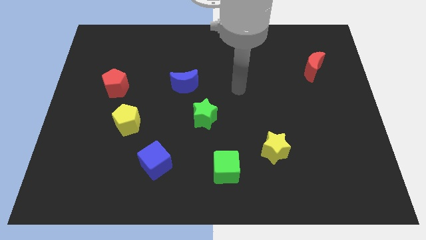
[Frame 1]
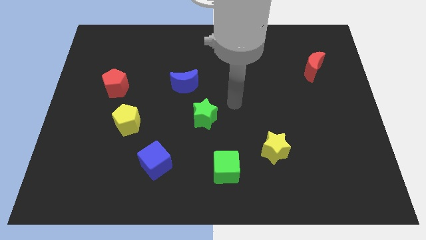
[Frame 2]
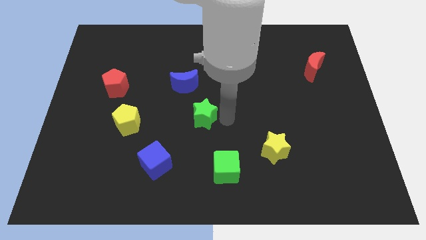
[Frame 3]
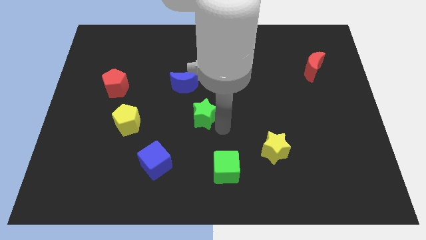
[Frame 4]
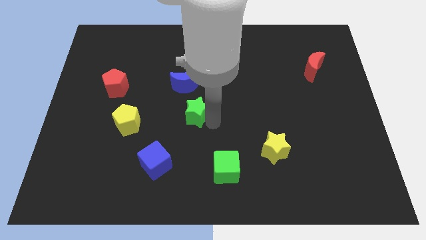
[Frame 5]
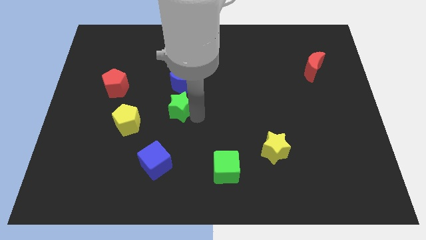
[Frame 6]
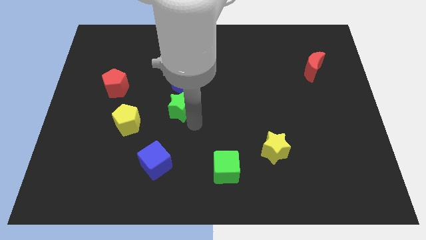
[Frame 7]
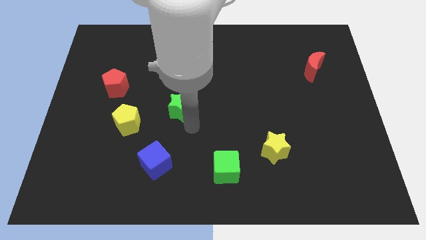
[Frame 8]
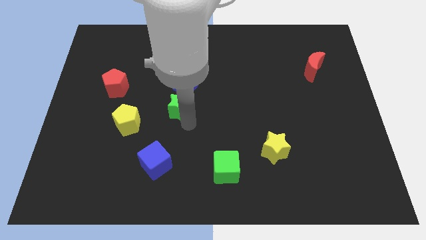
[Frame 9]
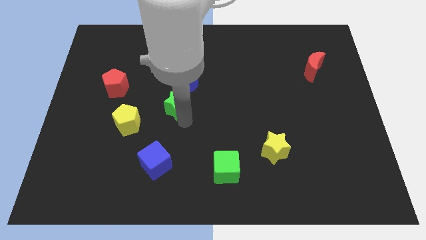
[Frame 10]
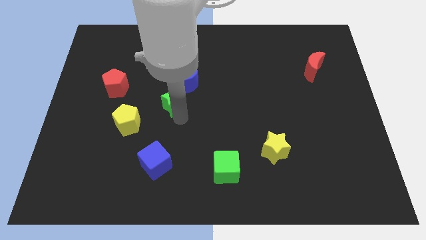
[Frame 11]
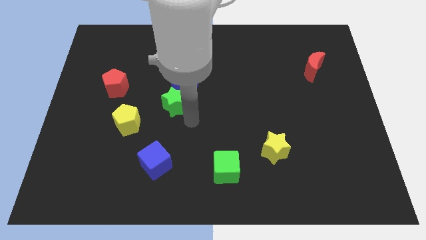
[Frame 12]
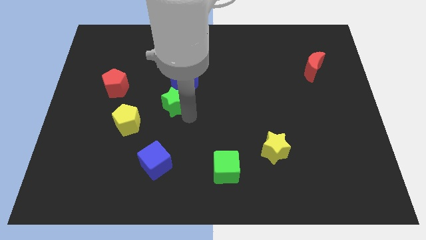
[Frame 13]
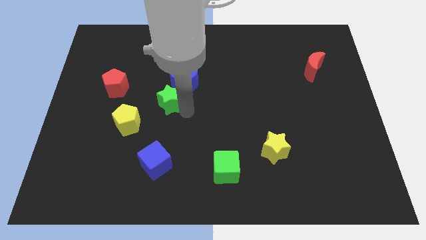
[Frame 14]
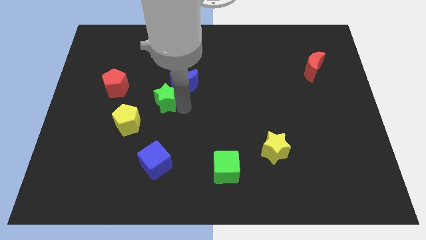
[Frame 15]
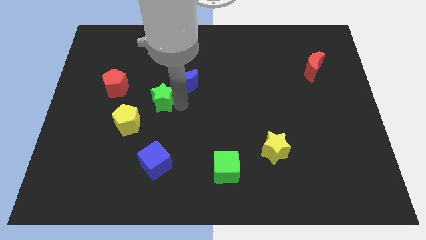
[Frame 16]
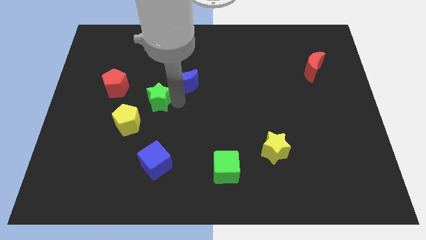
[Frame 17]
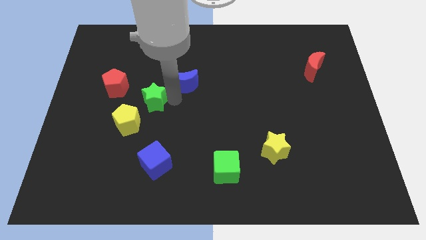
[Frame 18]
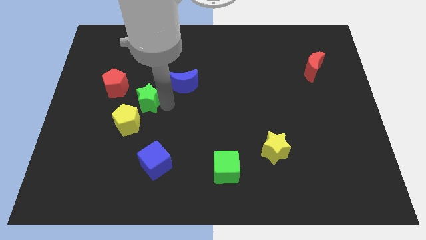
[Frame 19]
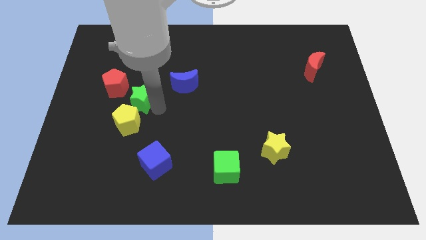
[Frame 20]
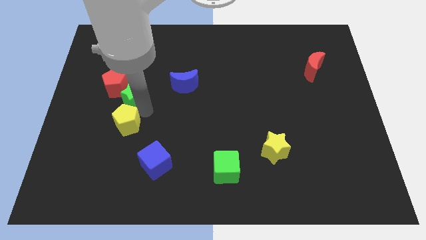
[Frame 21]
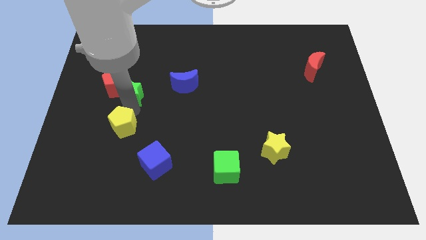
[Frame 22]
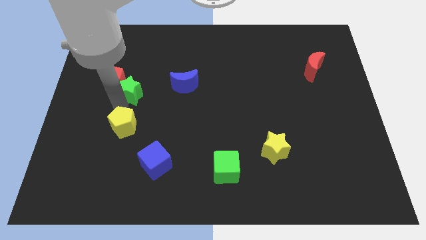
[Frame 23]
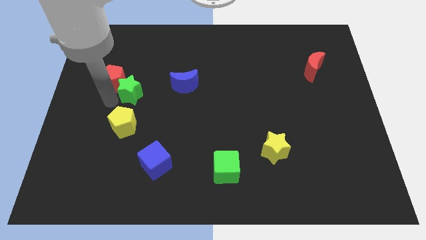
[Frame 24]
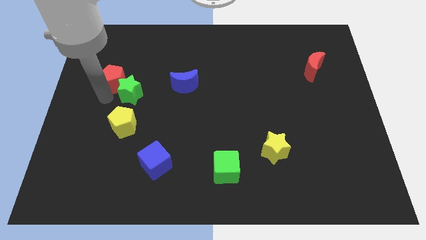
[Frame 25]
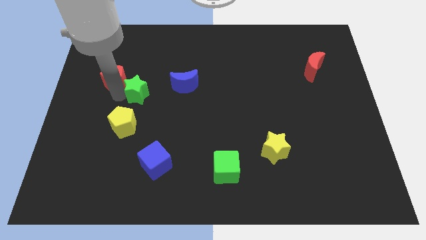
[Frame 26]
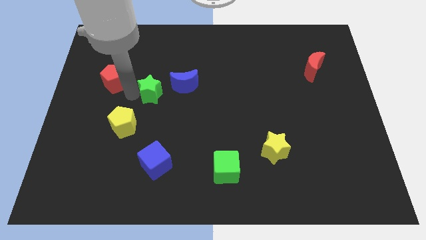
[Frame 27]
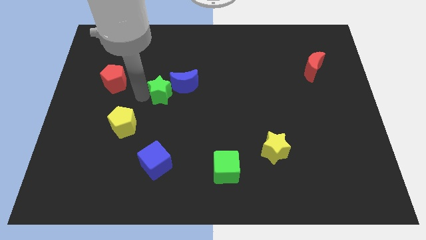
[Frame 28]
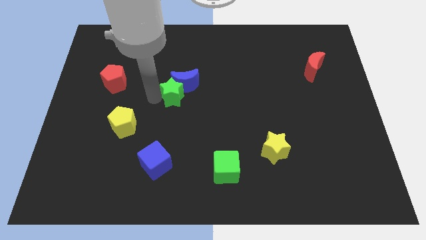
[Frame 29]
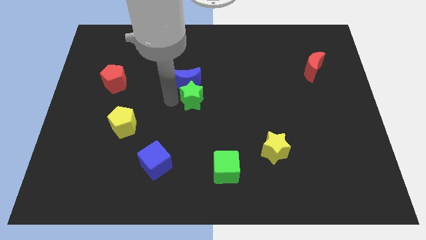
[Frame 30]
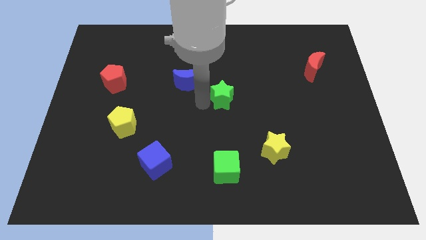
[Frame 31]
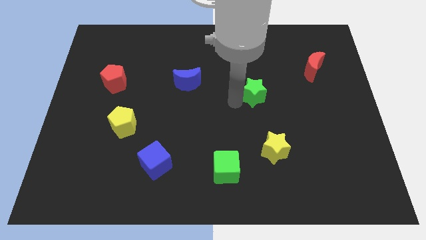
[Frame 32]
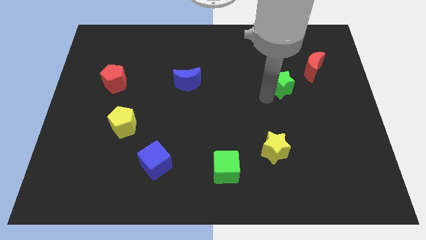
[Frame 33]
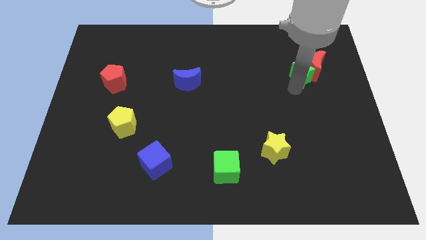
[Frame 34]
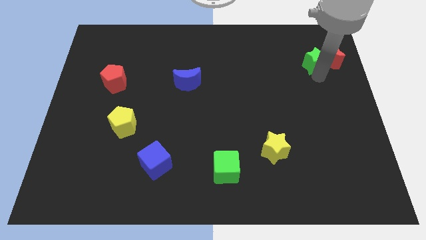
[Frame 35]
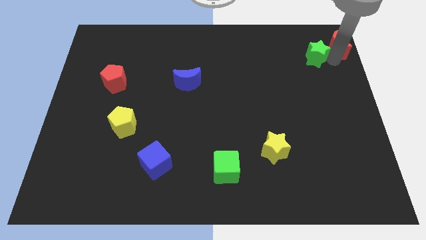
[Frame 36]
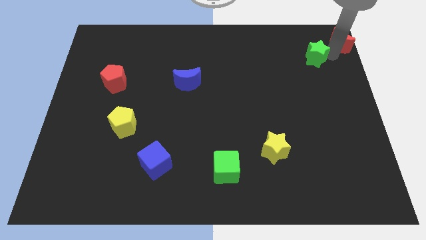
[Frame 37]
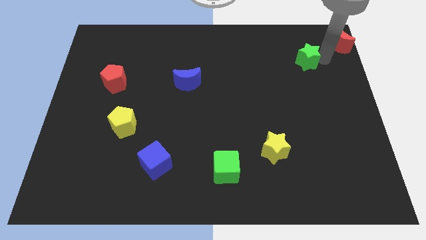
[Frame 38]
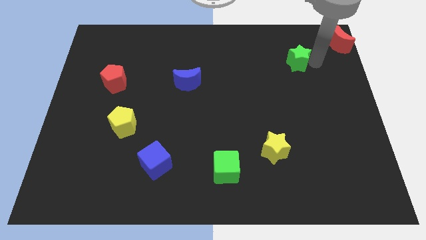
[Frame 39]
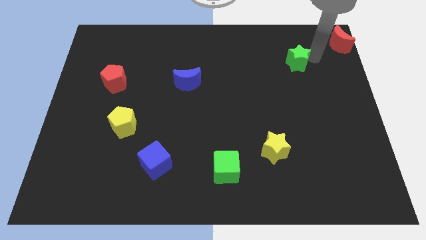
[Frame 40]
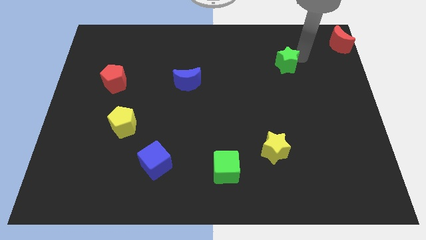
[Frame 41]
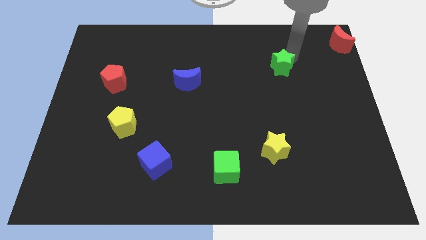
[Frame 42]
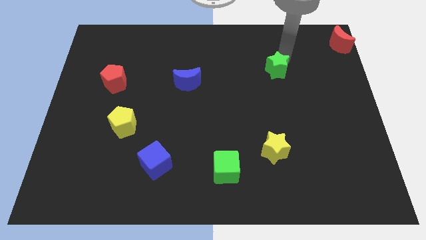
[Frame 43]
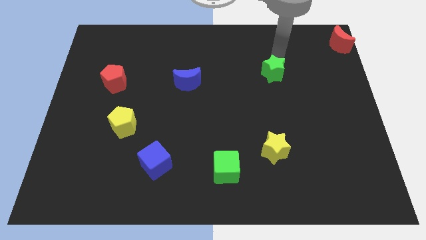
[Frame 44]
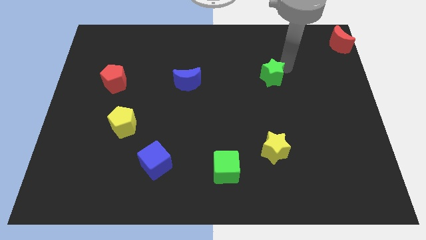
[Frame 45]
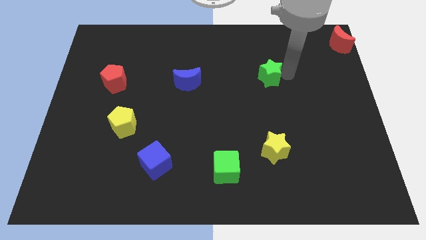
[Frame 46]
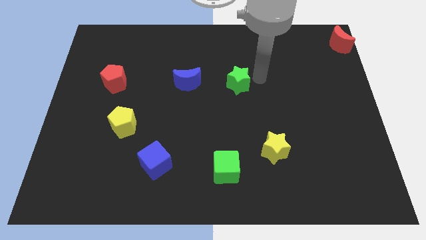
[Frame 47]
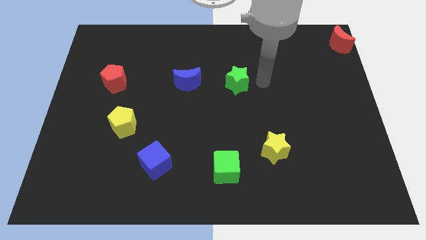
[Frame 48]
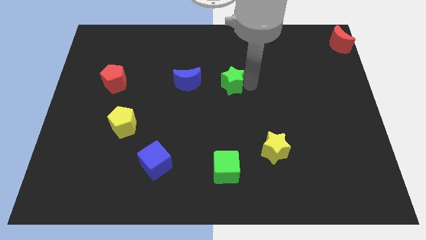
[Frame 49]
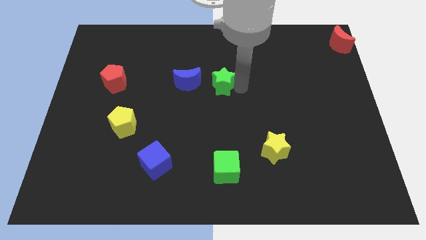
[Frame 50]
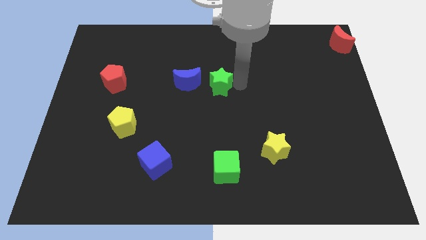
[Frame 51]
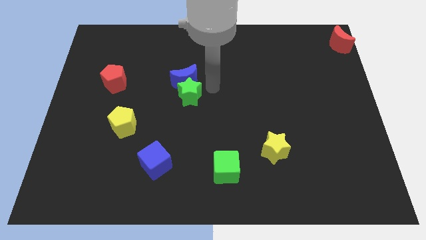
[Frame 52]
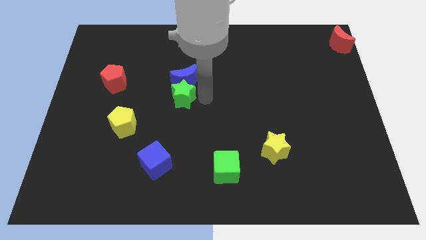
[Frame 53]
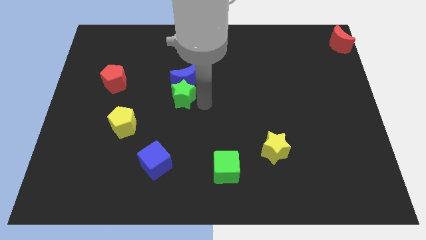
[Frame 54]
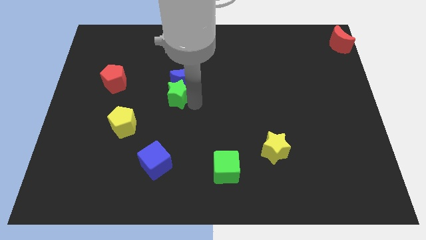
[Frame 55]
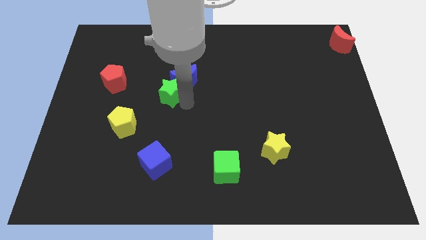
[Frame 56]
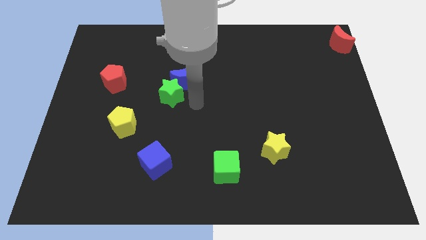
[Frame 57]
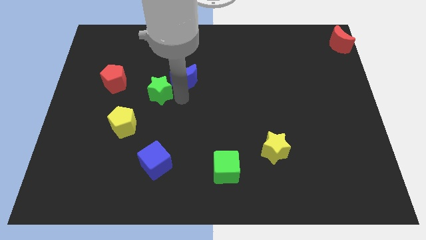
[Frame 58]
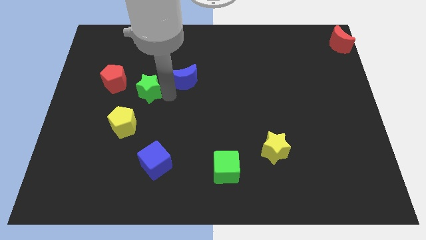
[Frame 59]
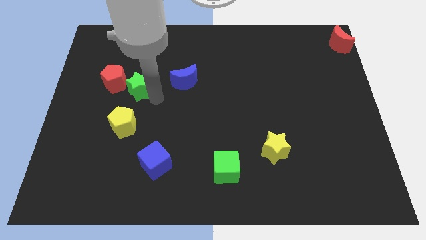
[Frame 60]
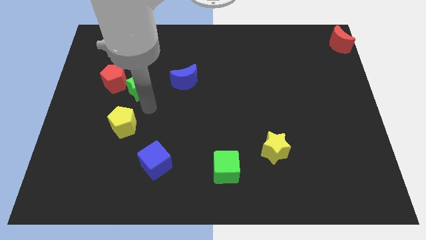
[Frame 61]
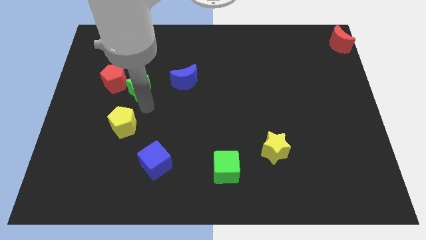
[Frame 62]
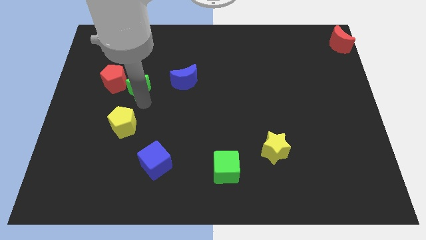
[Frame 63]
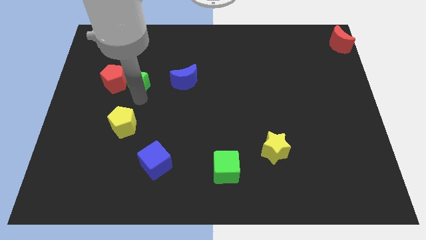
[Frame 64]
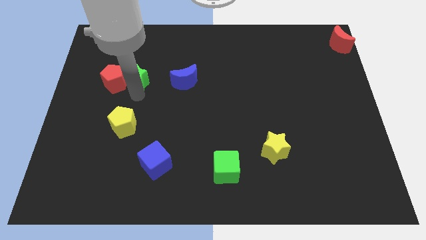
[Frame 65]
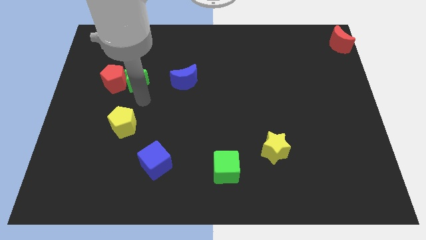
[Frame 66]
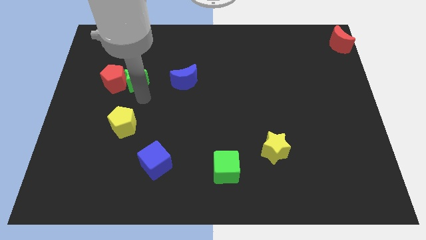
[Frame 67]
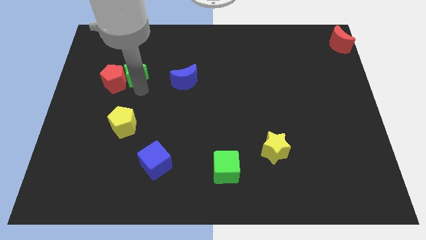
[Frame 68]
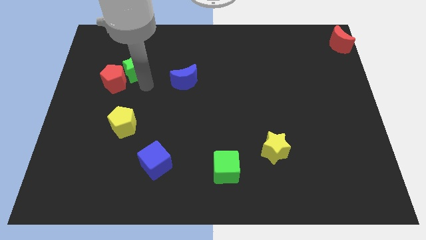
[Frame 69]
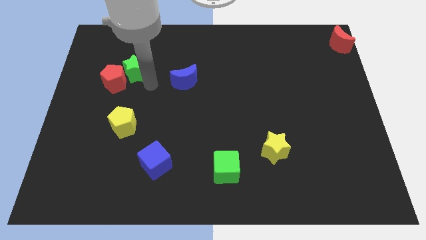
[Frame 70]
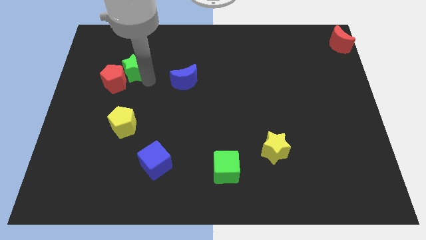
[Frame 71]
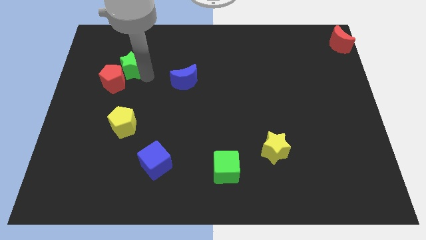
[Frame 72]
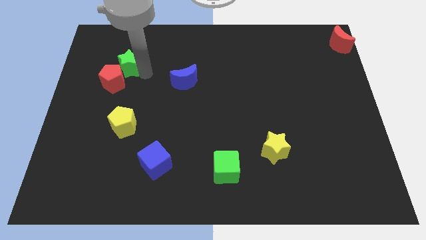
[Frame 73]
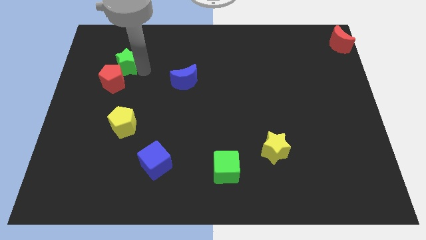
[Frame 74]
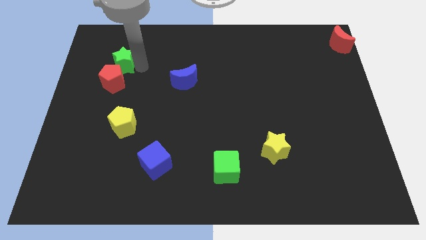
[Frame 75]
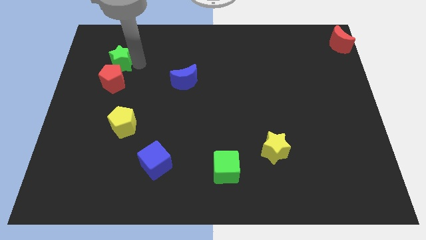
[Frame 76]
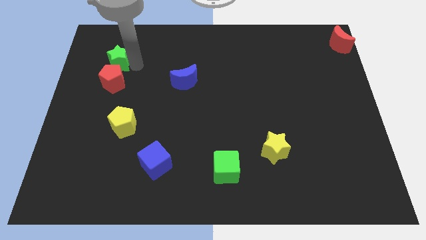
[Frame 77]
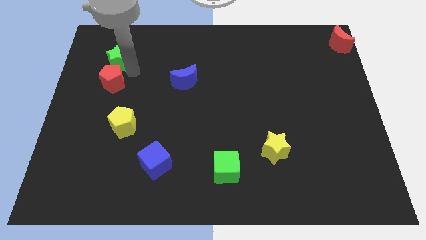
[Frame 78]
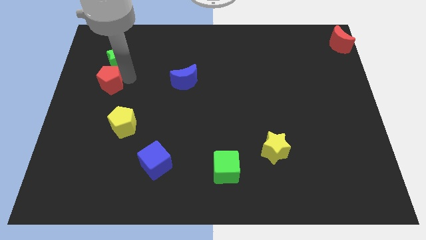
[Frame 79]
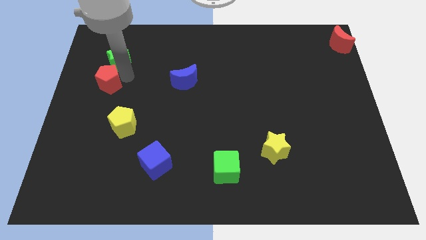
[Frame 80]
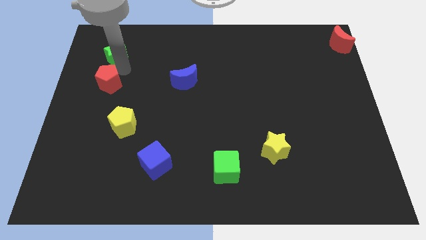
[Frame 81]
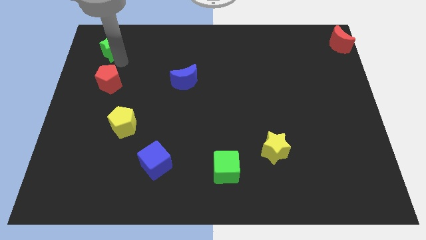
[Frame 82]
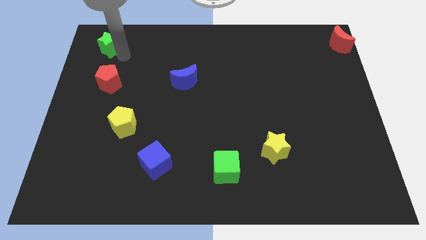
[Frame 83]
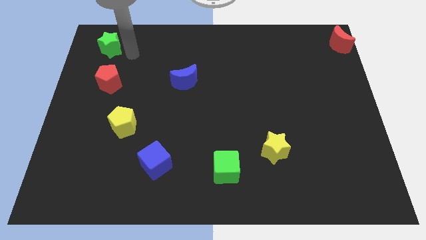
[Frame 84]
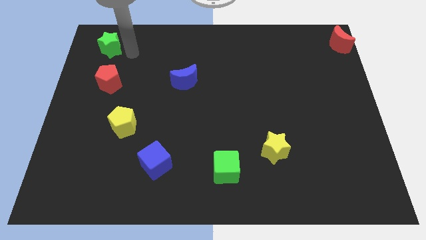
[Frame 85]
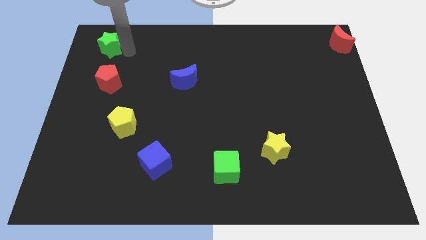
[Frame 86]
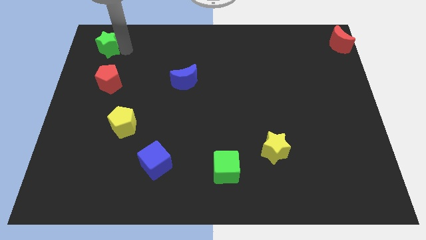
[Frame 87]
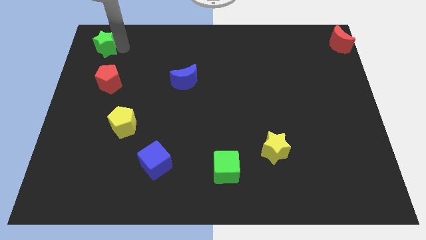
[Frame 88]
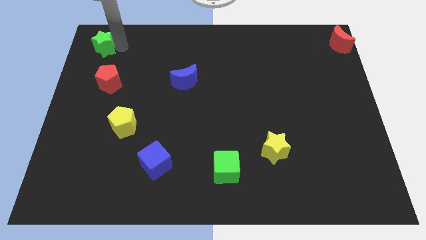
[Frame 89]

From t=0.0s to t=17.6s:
push the green star to the top left corner
